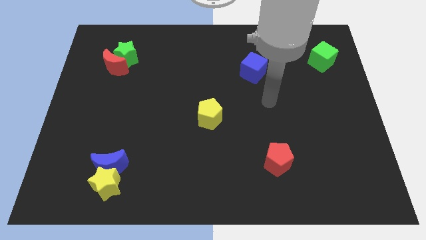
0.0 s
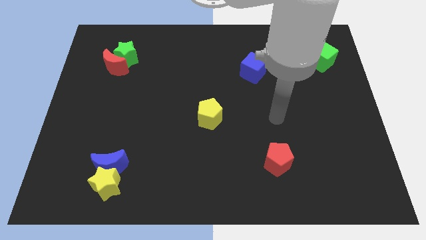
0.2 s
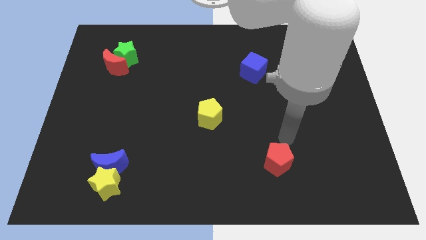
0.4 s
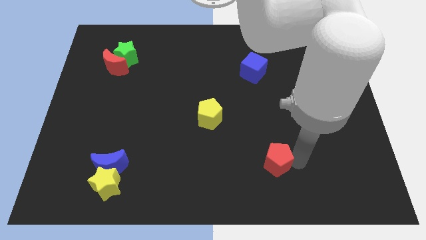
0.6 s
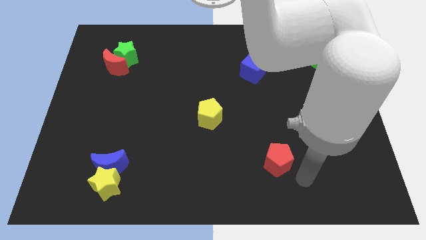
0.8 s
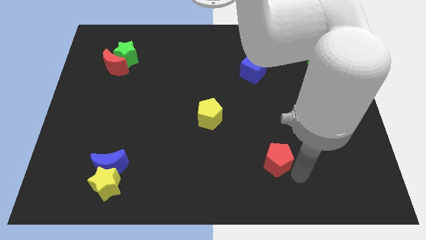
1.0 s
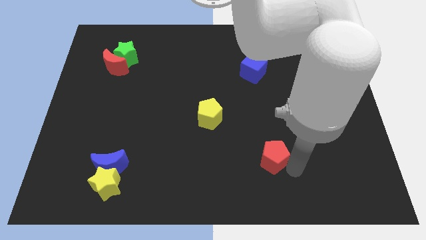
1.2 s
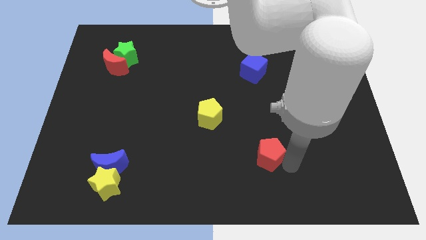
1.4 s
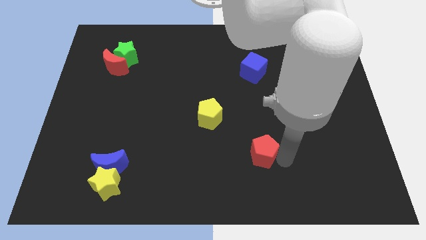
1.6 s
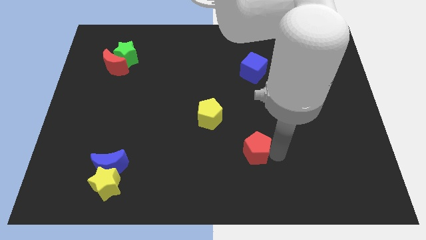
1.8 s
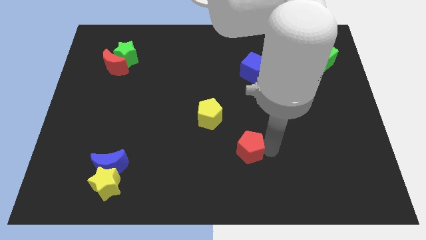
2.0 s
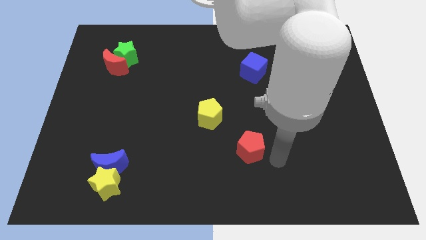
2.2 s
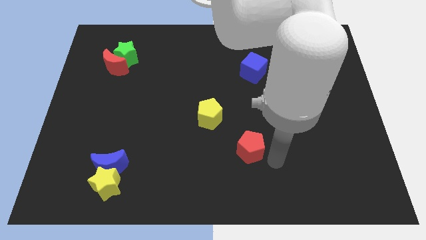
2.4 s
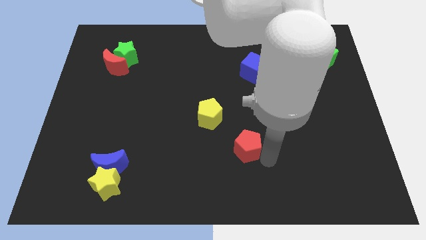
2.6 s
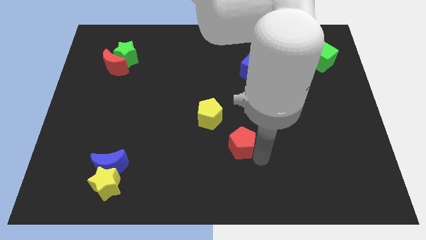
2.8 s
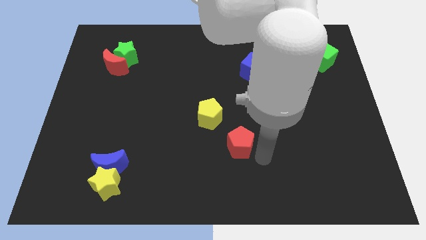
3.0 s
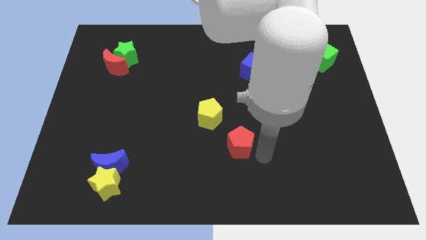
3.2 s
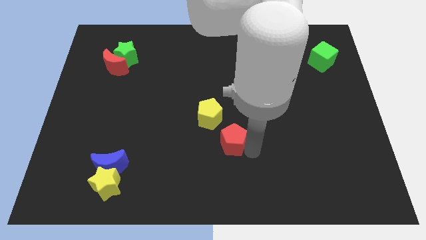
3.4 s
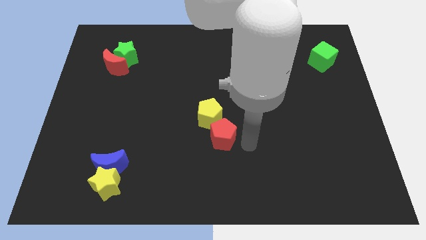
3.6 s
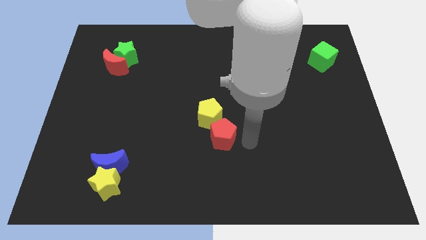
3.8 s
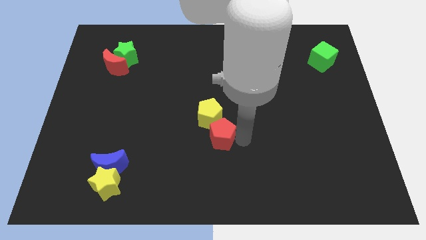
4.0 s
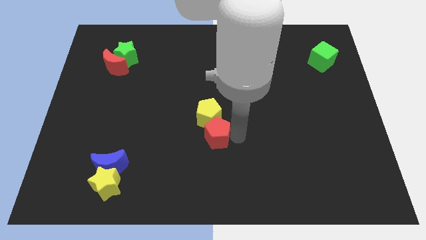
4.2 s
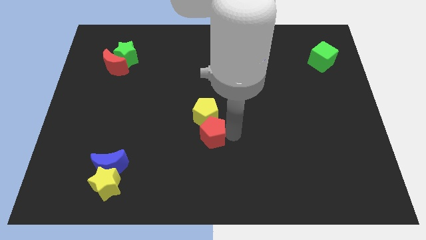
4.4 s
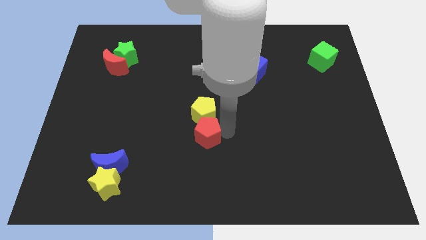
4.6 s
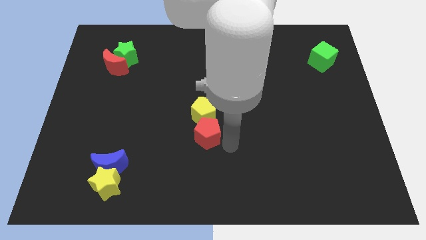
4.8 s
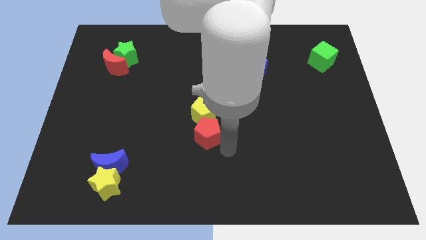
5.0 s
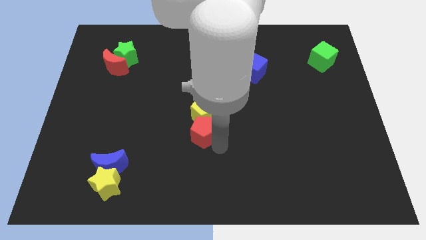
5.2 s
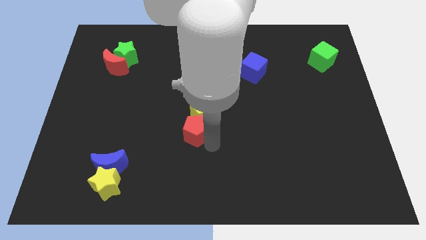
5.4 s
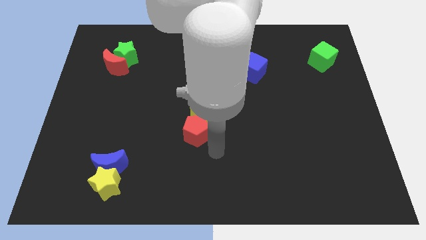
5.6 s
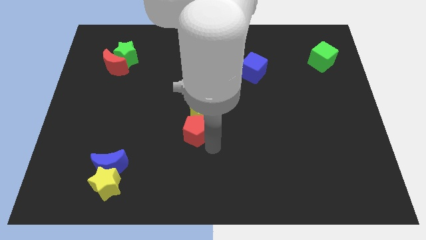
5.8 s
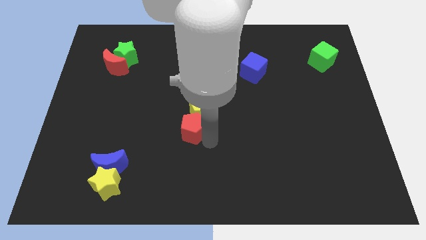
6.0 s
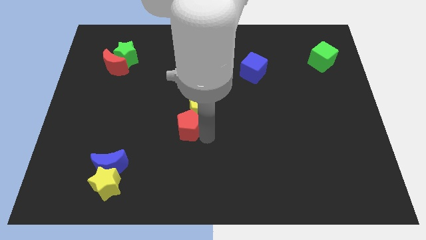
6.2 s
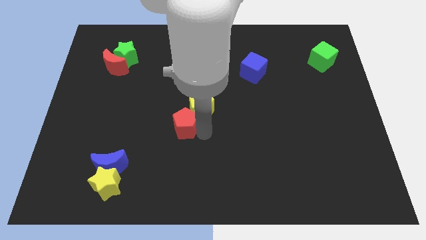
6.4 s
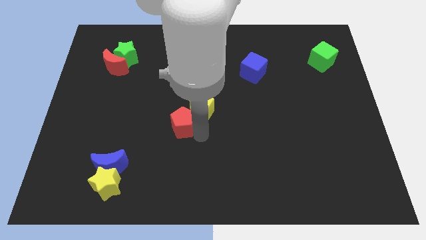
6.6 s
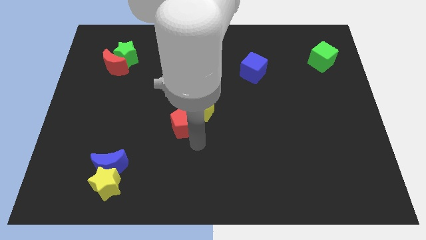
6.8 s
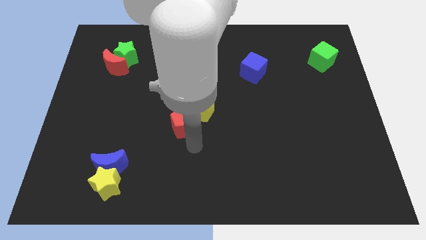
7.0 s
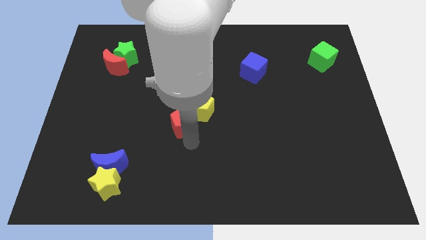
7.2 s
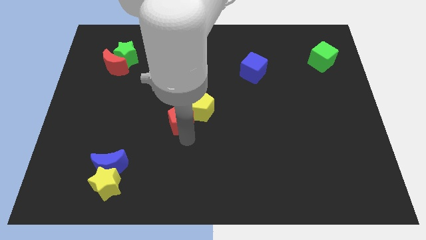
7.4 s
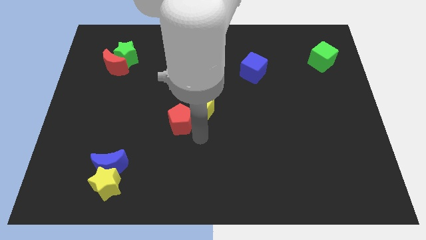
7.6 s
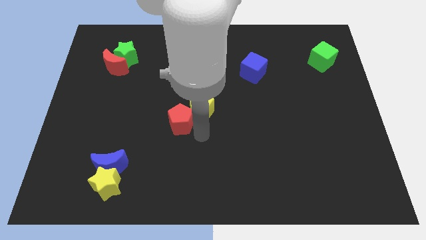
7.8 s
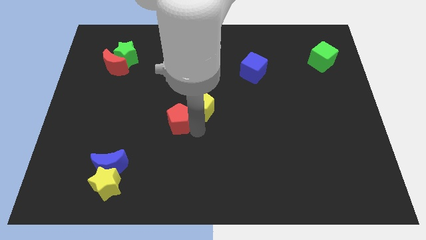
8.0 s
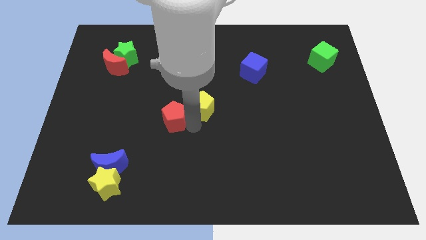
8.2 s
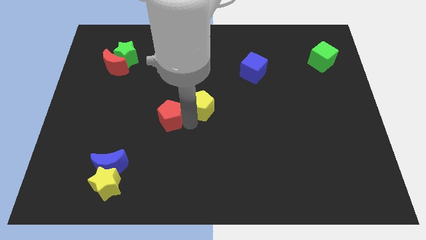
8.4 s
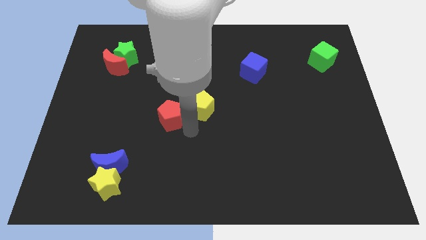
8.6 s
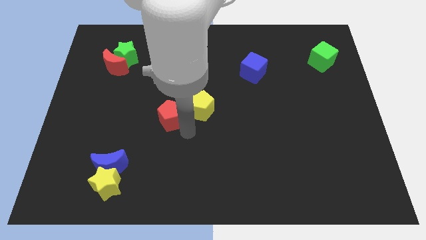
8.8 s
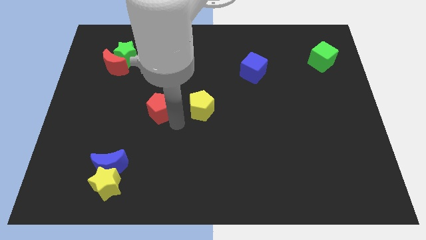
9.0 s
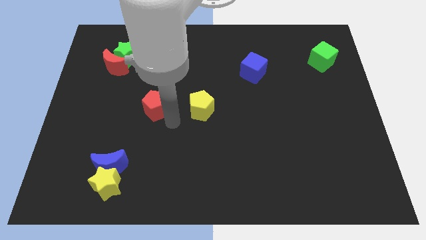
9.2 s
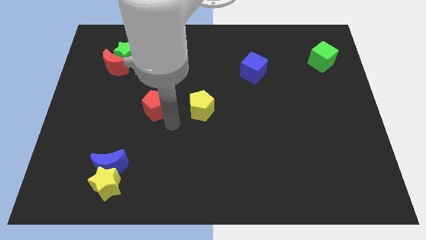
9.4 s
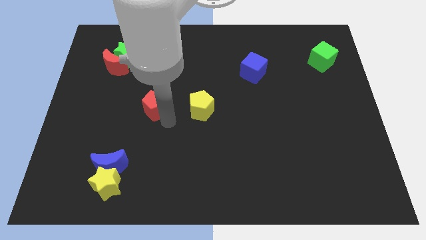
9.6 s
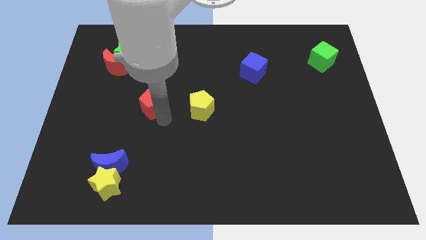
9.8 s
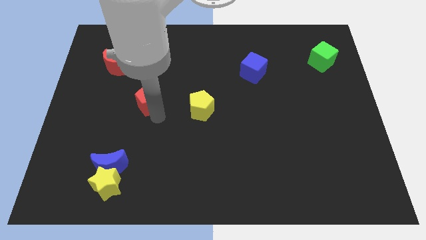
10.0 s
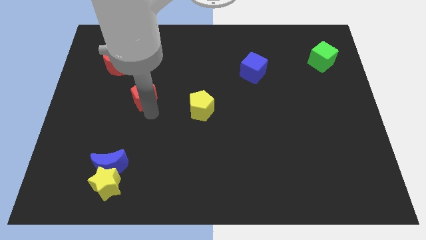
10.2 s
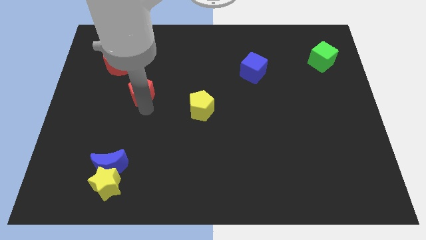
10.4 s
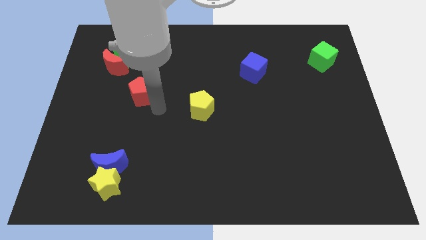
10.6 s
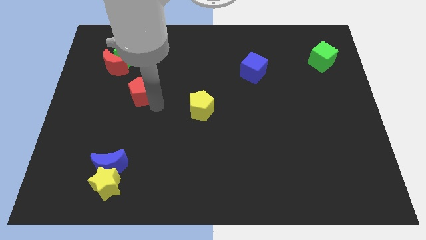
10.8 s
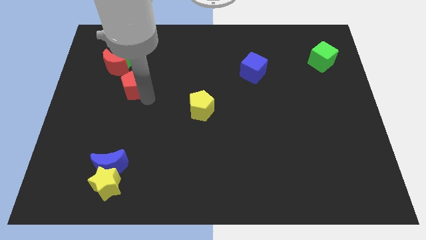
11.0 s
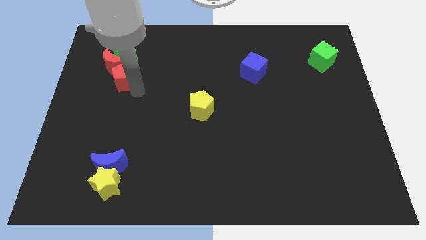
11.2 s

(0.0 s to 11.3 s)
push the red pentagon towards the red moon

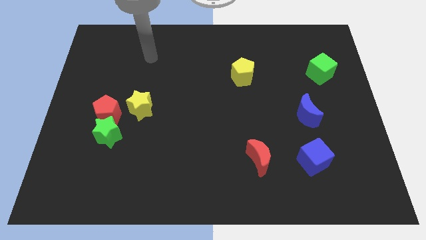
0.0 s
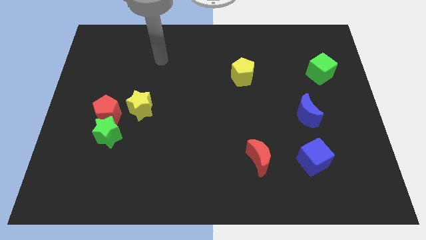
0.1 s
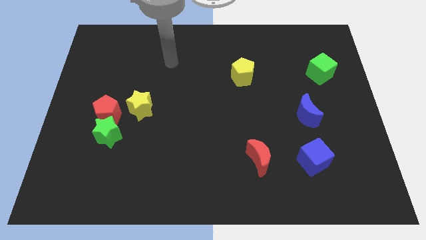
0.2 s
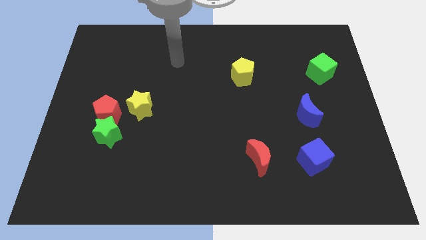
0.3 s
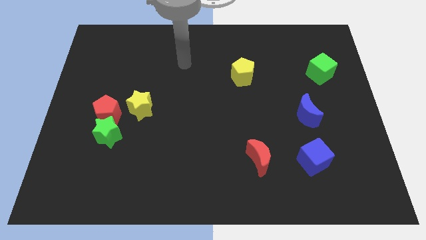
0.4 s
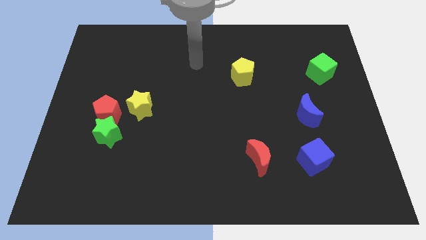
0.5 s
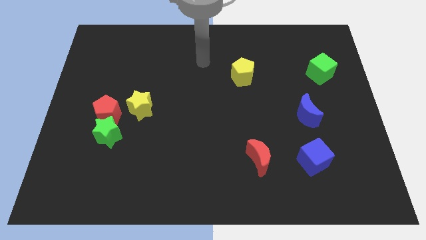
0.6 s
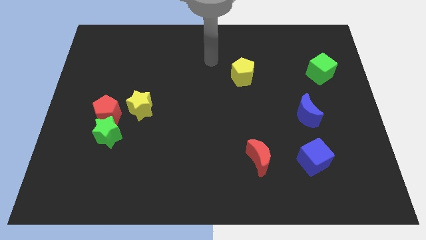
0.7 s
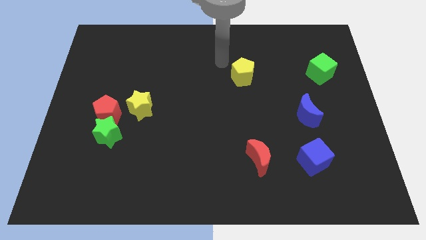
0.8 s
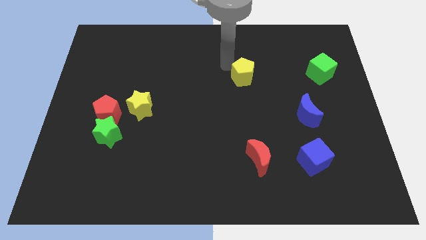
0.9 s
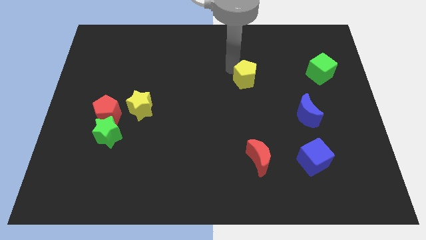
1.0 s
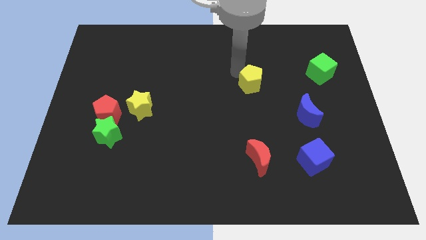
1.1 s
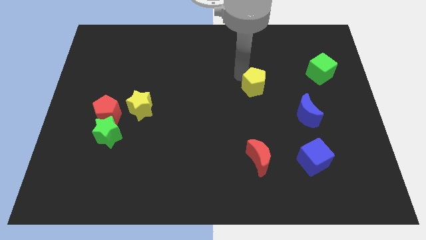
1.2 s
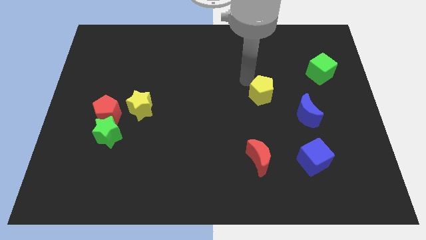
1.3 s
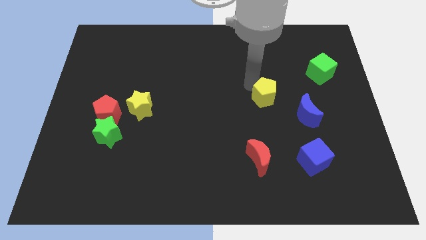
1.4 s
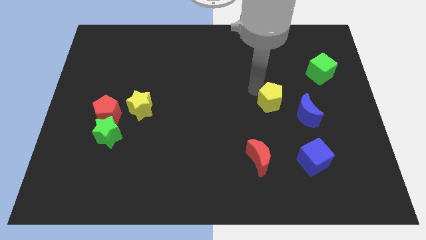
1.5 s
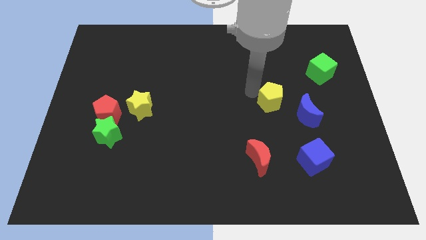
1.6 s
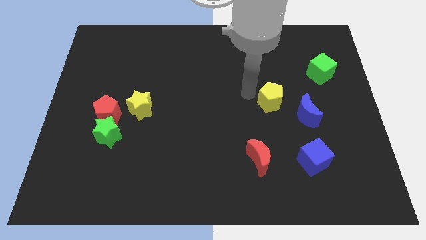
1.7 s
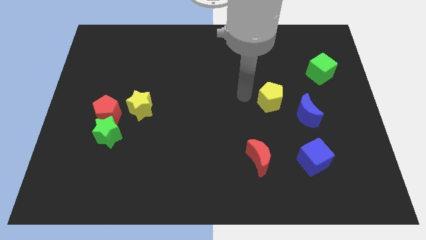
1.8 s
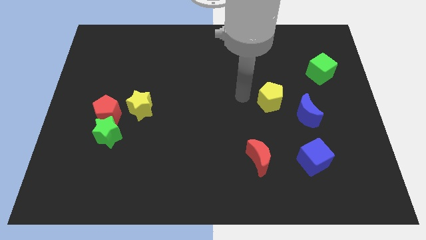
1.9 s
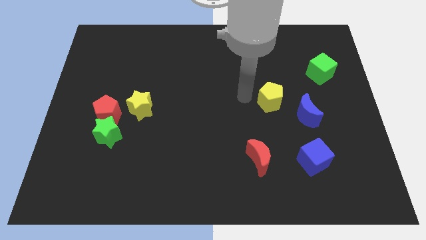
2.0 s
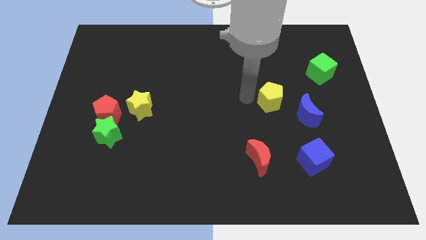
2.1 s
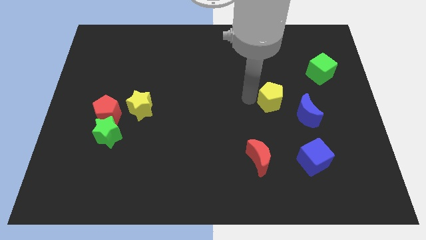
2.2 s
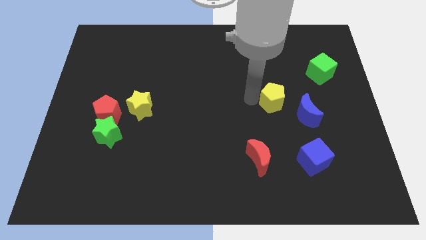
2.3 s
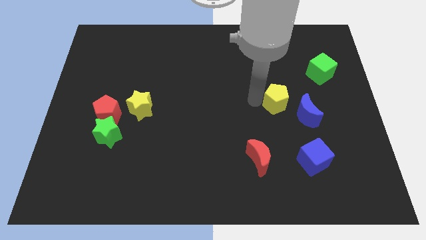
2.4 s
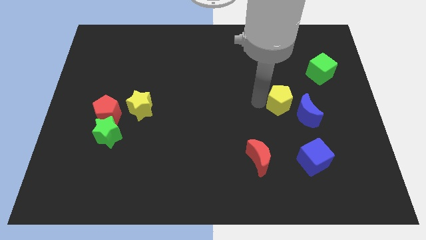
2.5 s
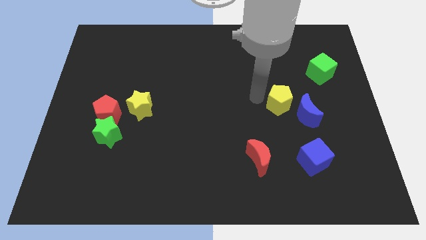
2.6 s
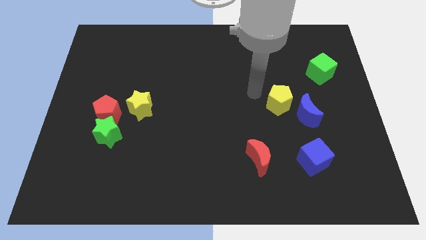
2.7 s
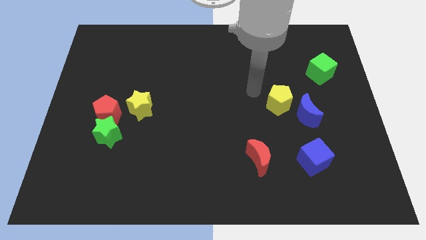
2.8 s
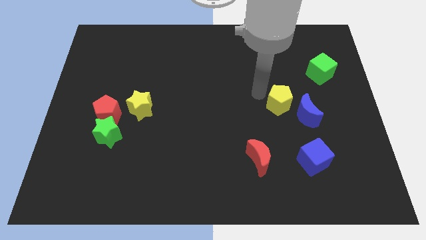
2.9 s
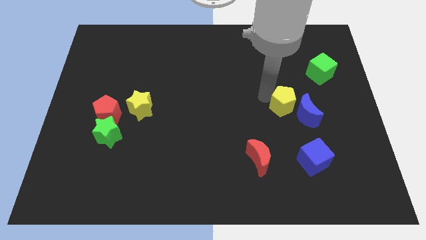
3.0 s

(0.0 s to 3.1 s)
slide the yellow pentagon next to the blue moon
